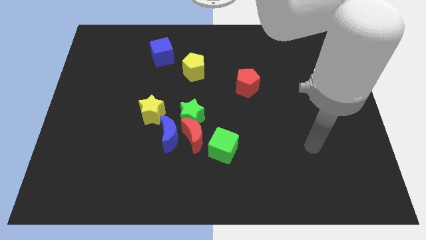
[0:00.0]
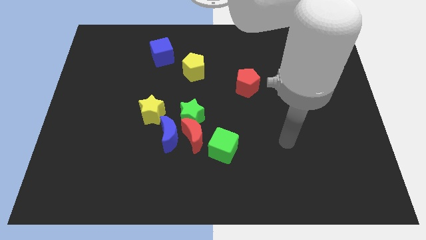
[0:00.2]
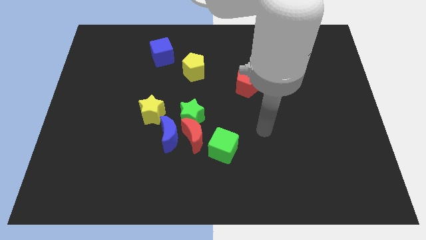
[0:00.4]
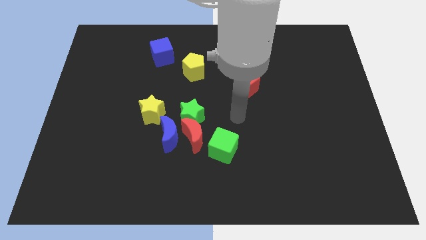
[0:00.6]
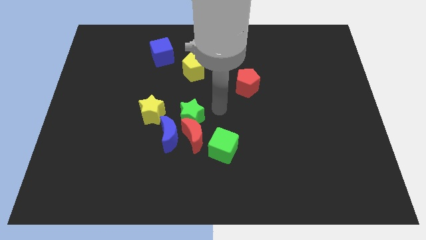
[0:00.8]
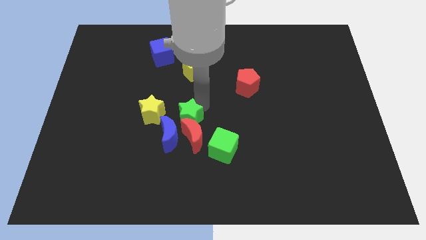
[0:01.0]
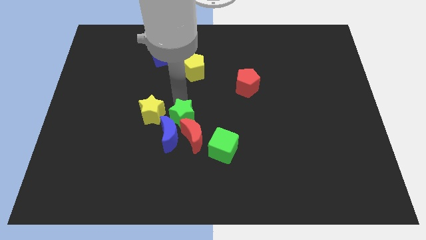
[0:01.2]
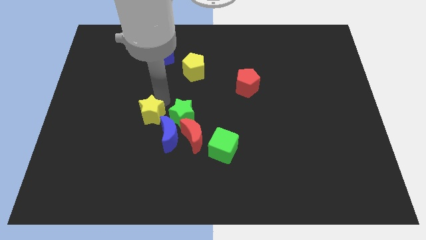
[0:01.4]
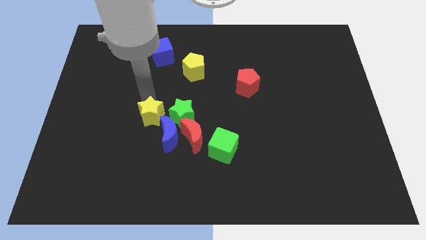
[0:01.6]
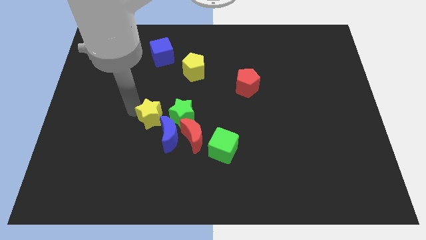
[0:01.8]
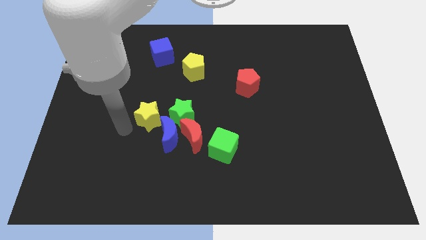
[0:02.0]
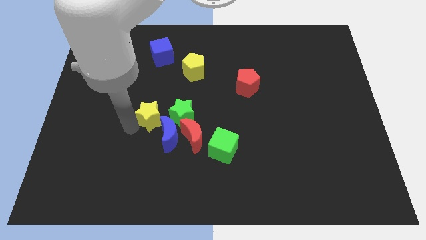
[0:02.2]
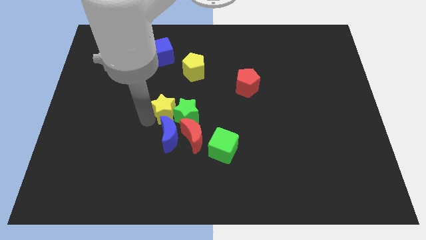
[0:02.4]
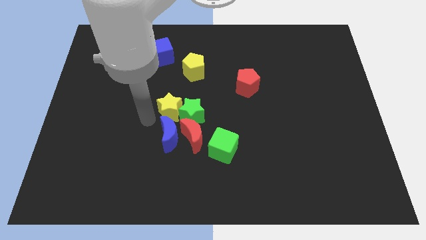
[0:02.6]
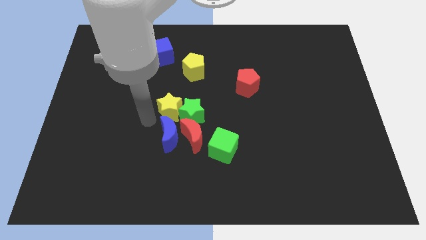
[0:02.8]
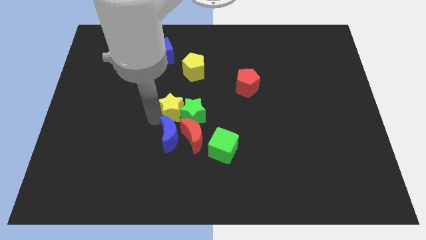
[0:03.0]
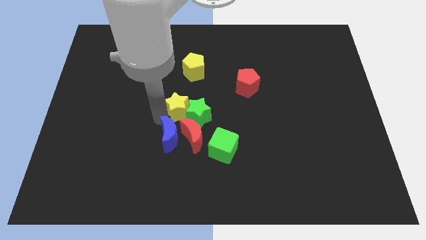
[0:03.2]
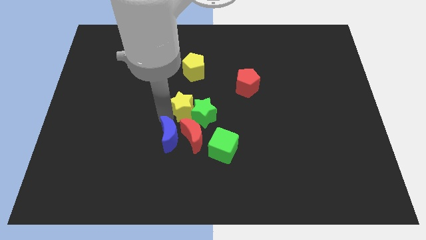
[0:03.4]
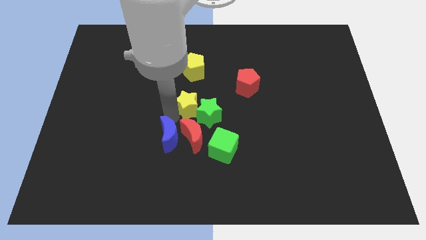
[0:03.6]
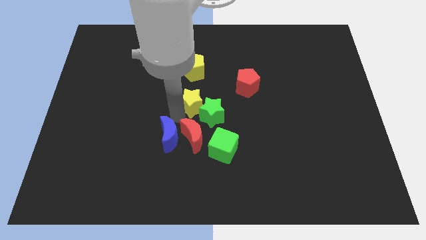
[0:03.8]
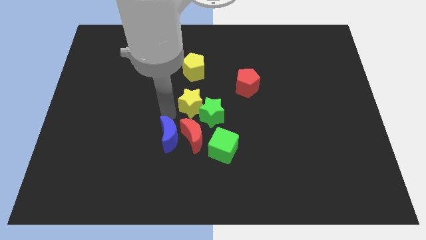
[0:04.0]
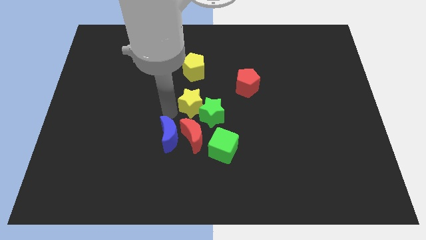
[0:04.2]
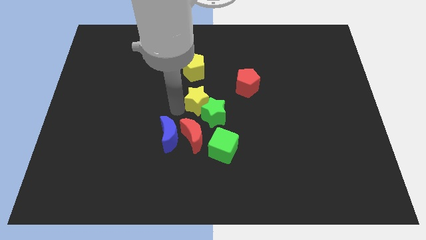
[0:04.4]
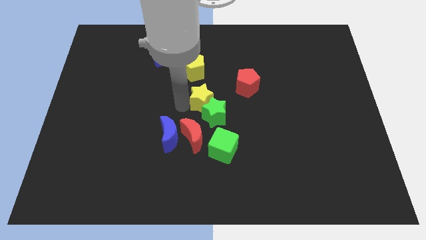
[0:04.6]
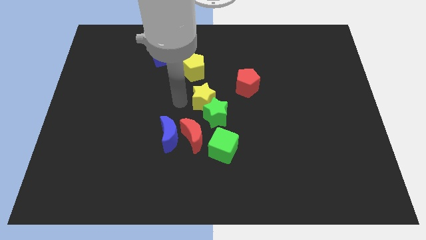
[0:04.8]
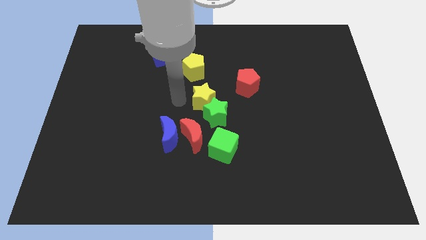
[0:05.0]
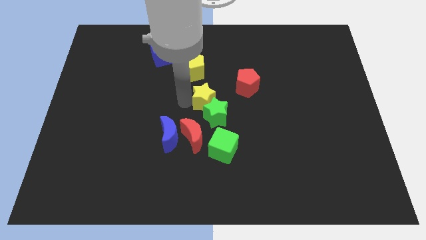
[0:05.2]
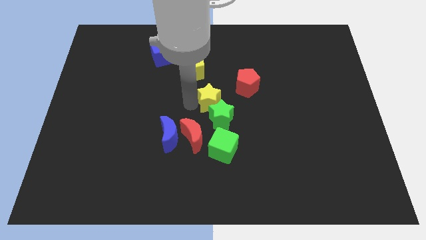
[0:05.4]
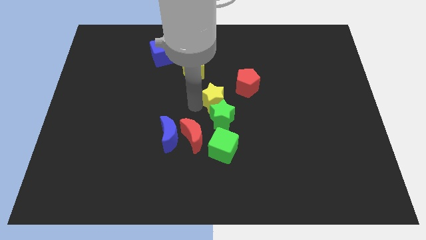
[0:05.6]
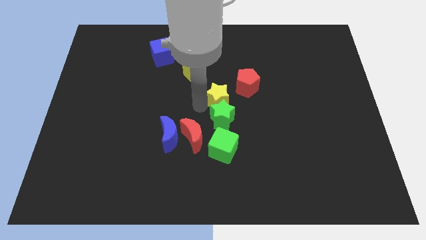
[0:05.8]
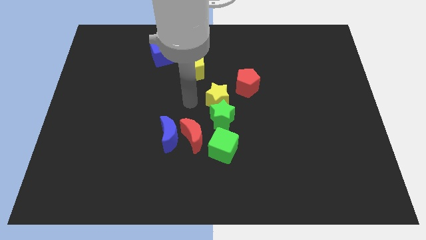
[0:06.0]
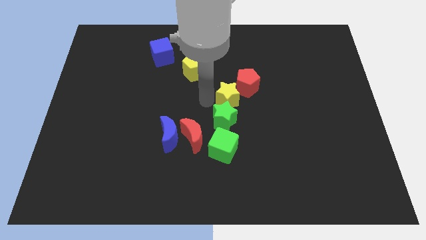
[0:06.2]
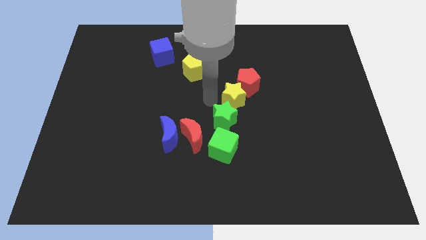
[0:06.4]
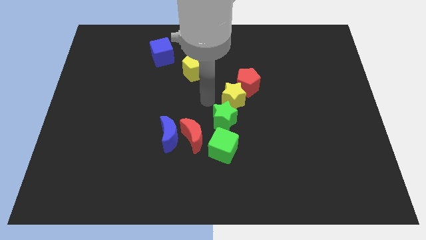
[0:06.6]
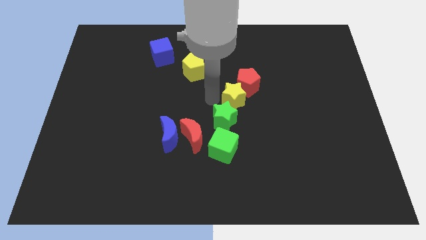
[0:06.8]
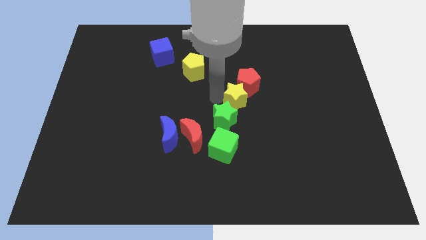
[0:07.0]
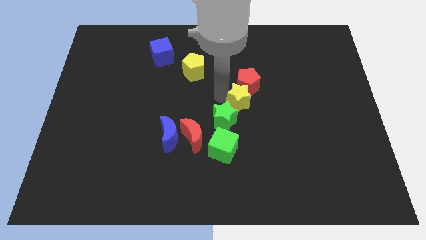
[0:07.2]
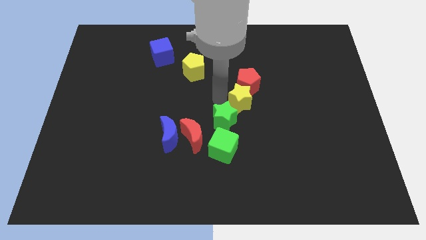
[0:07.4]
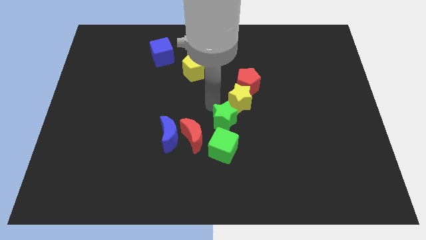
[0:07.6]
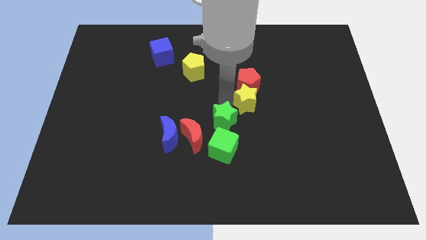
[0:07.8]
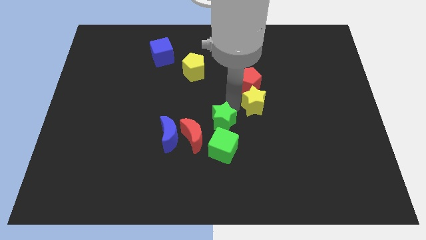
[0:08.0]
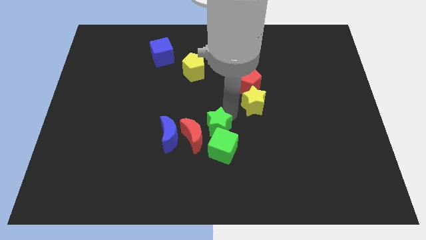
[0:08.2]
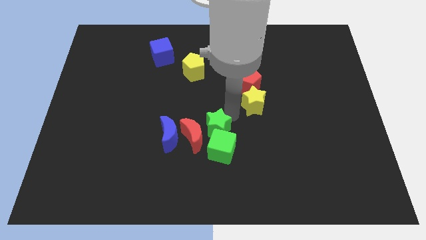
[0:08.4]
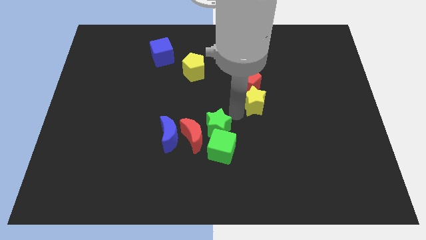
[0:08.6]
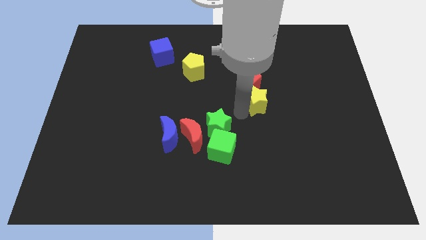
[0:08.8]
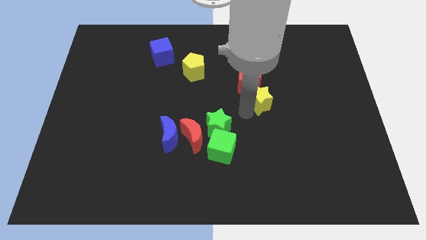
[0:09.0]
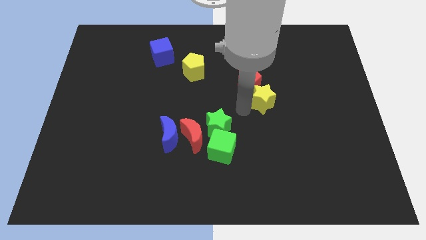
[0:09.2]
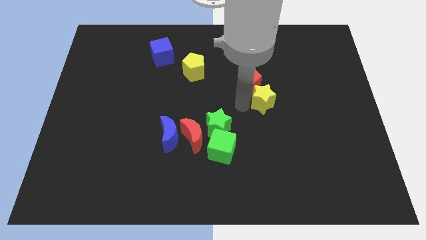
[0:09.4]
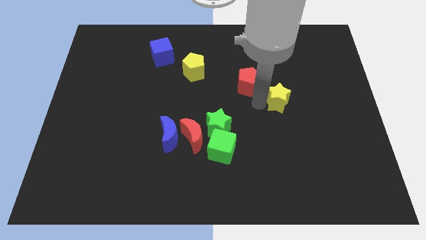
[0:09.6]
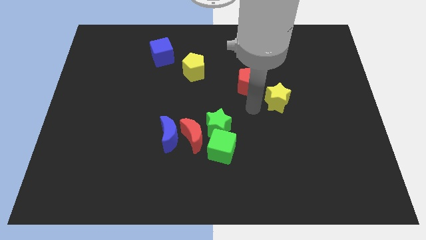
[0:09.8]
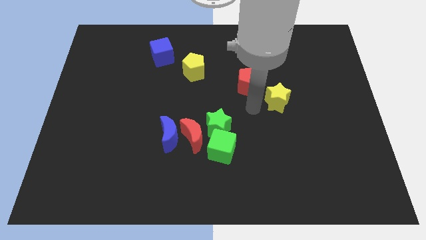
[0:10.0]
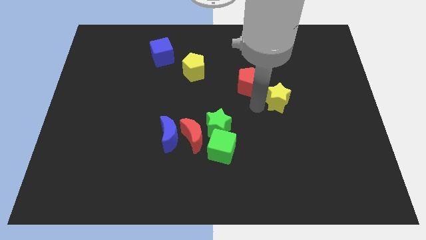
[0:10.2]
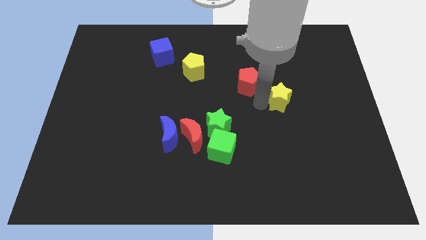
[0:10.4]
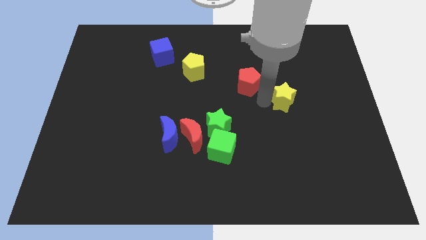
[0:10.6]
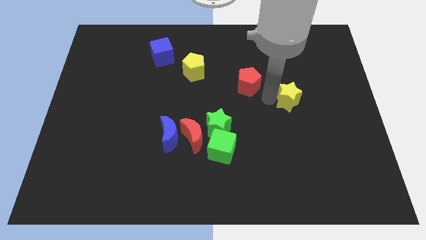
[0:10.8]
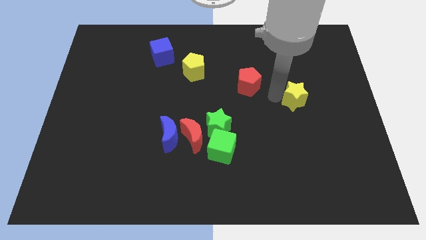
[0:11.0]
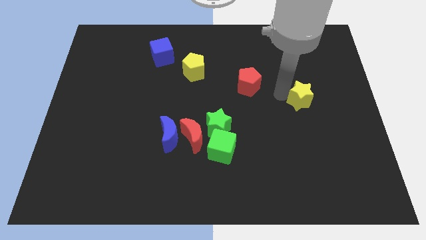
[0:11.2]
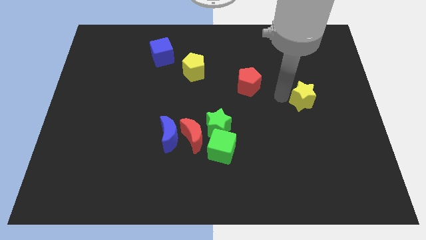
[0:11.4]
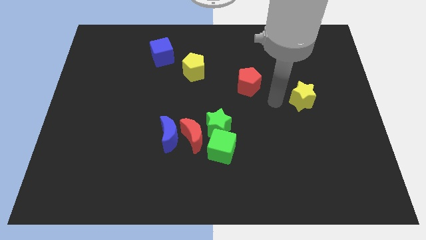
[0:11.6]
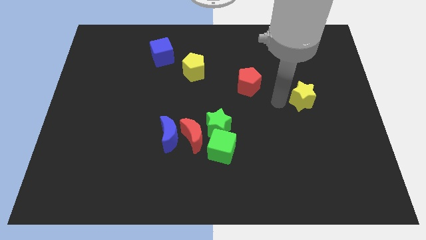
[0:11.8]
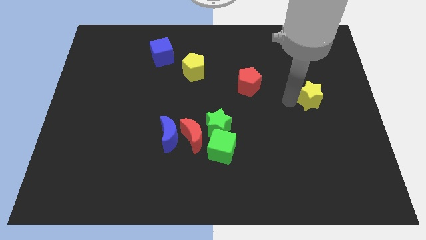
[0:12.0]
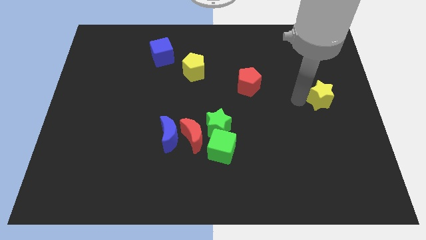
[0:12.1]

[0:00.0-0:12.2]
put the yellow star to the right side of the board
